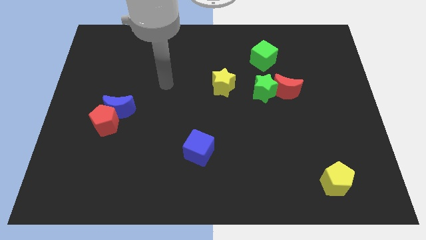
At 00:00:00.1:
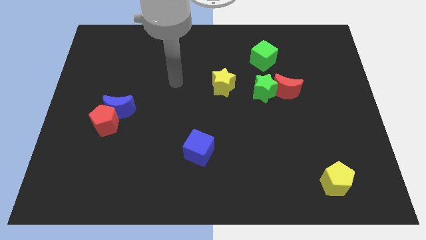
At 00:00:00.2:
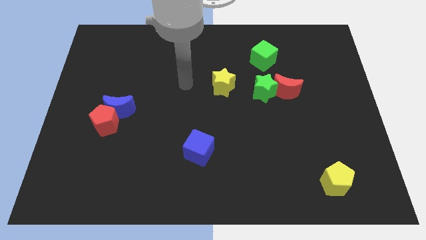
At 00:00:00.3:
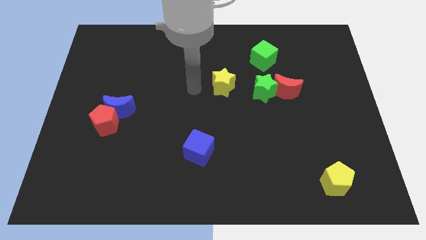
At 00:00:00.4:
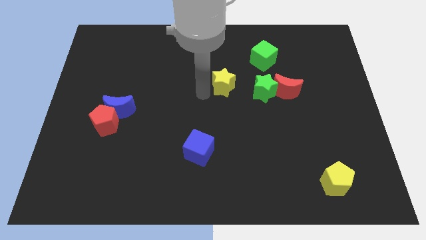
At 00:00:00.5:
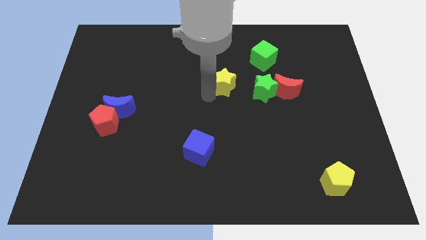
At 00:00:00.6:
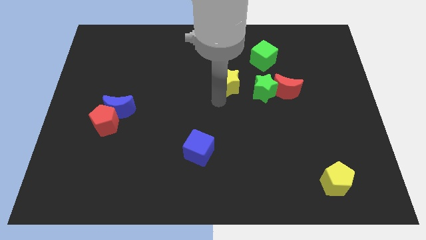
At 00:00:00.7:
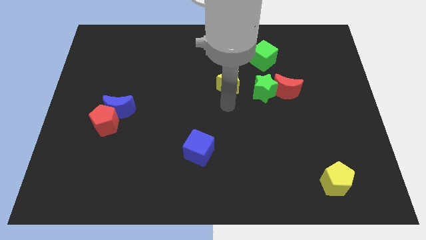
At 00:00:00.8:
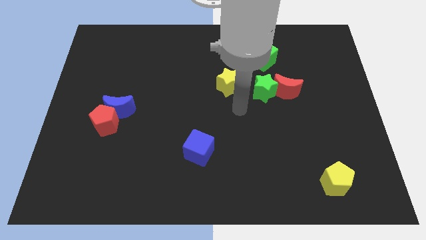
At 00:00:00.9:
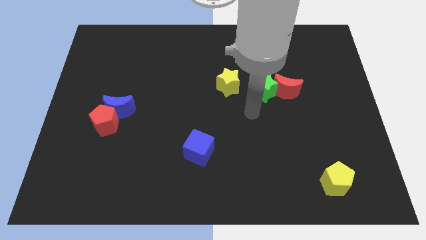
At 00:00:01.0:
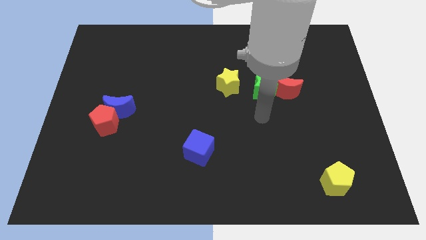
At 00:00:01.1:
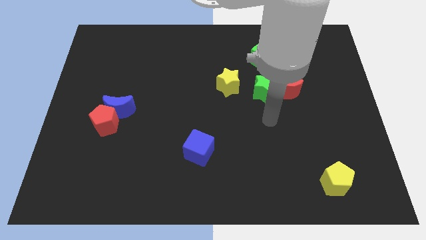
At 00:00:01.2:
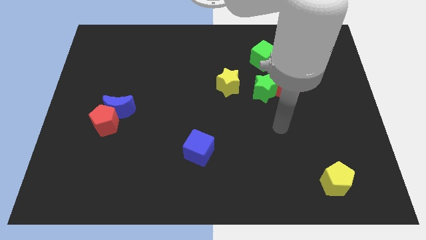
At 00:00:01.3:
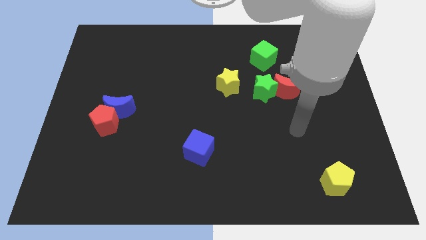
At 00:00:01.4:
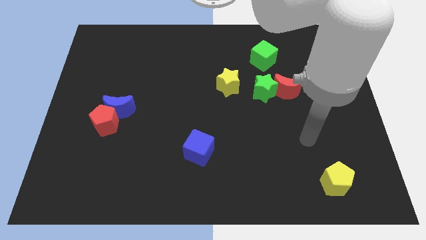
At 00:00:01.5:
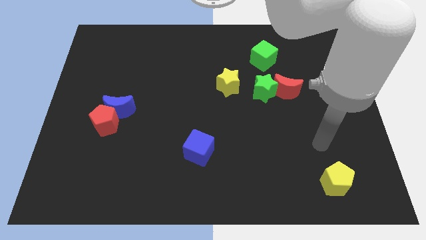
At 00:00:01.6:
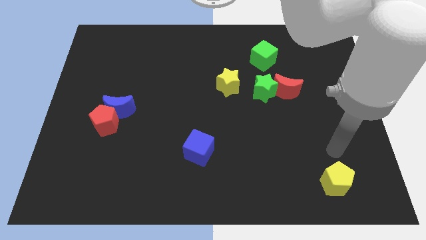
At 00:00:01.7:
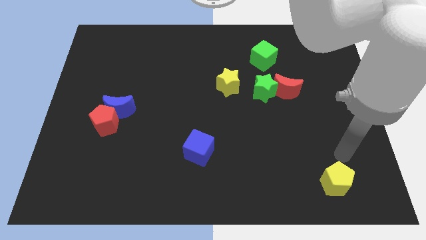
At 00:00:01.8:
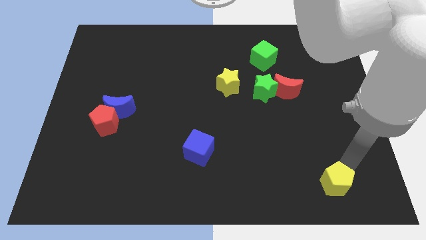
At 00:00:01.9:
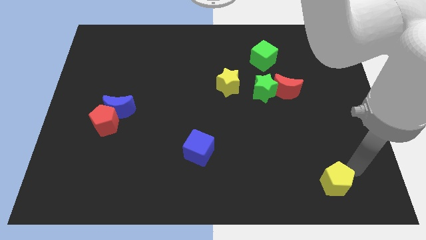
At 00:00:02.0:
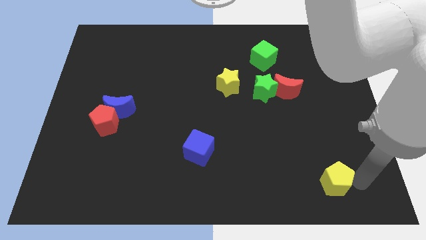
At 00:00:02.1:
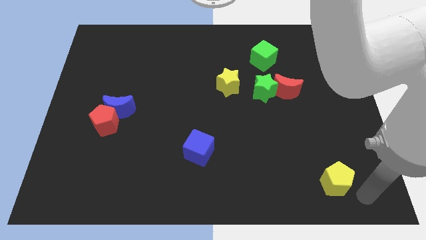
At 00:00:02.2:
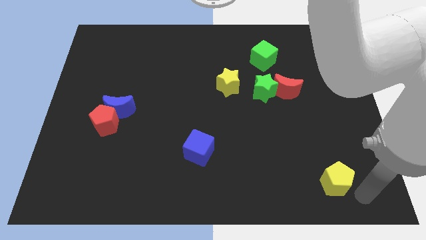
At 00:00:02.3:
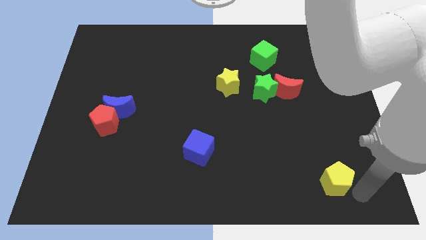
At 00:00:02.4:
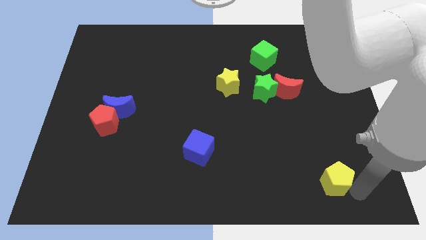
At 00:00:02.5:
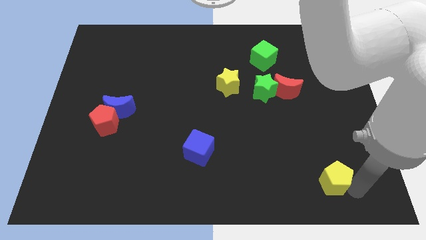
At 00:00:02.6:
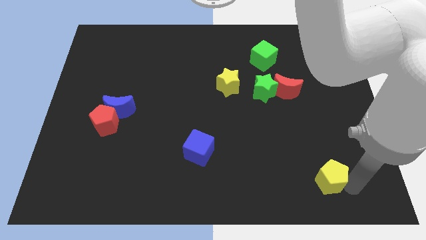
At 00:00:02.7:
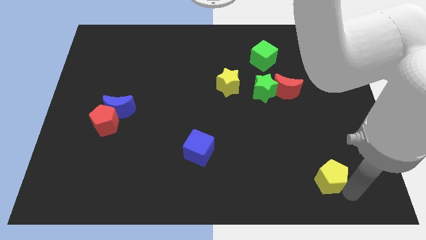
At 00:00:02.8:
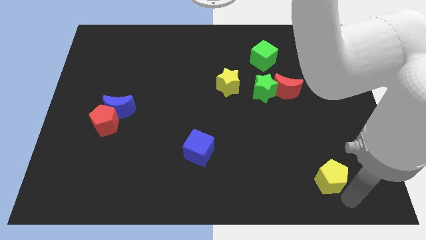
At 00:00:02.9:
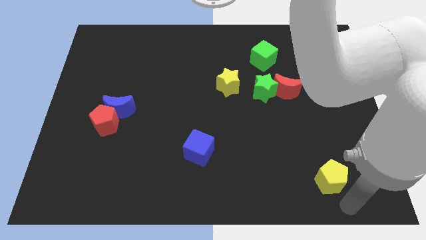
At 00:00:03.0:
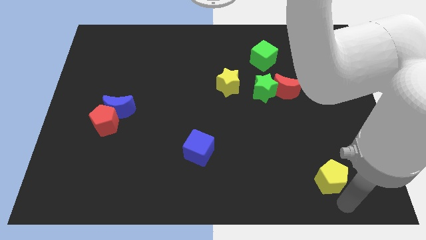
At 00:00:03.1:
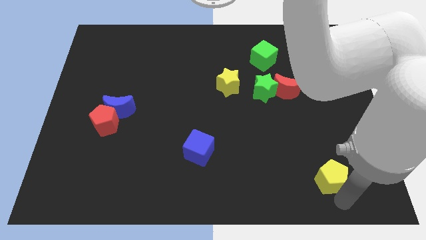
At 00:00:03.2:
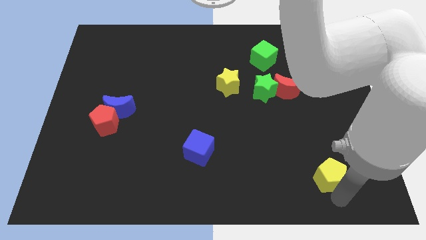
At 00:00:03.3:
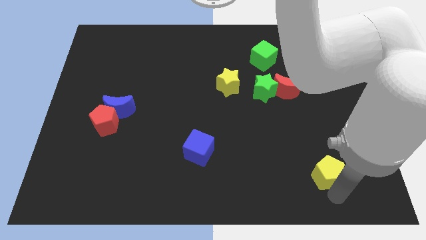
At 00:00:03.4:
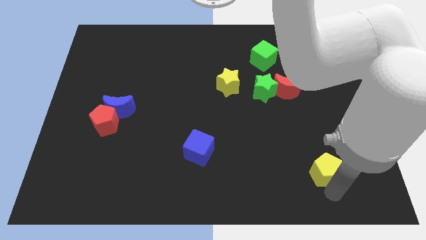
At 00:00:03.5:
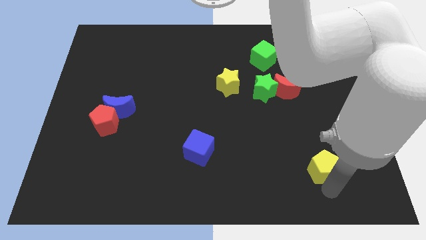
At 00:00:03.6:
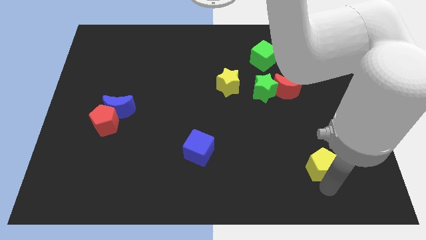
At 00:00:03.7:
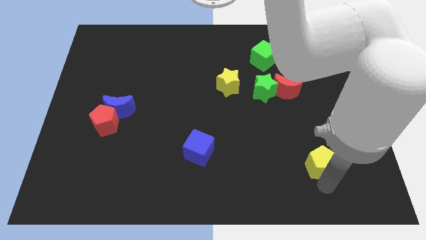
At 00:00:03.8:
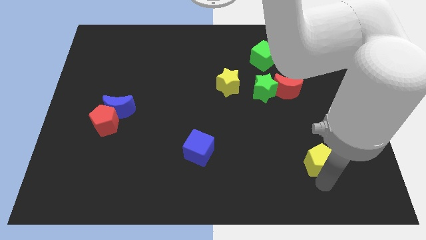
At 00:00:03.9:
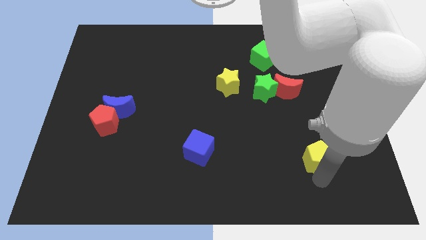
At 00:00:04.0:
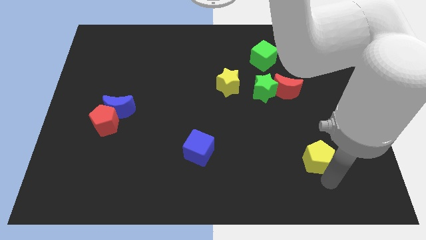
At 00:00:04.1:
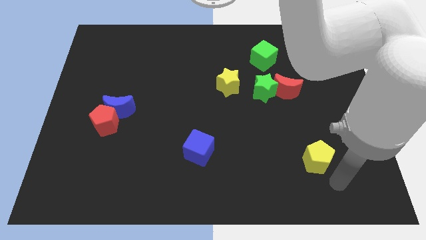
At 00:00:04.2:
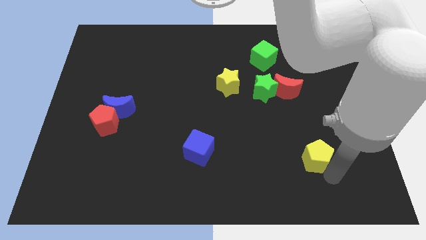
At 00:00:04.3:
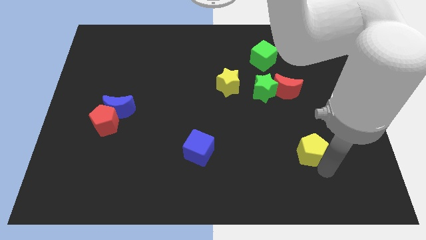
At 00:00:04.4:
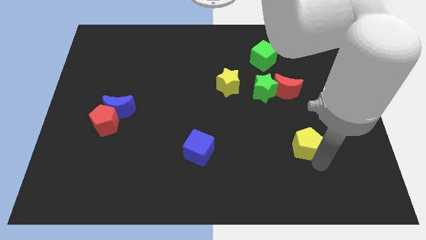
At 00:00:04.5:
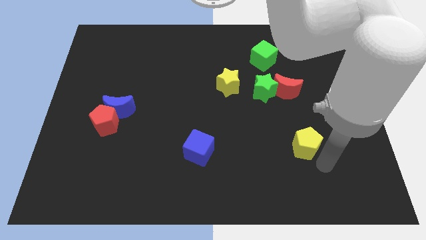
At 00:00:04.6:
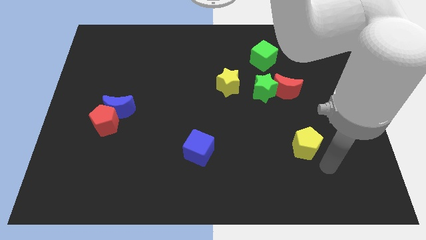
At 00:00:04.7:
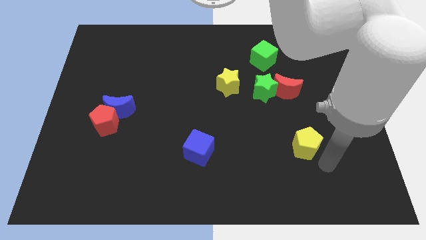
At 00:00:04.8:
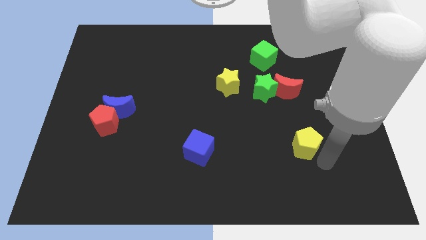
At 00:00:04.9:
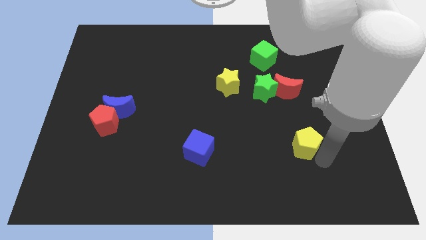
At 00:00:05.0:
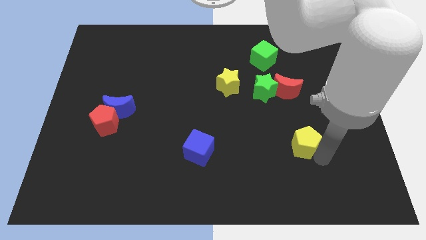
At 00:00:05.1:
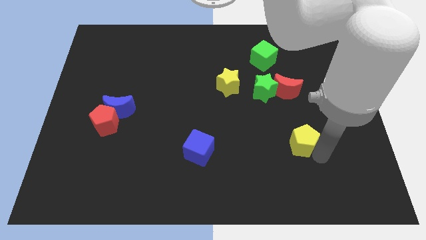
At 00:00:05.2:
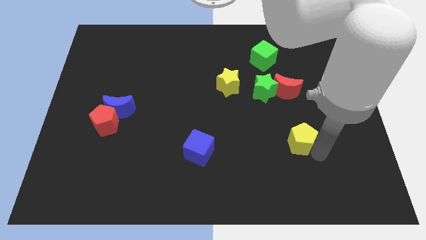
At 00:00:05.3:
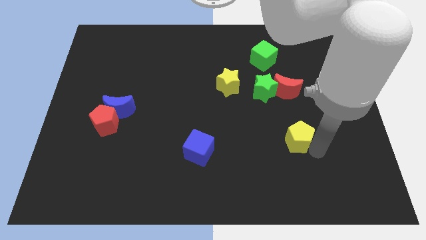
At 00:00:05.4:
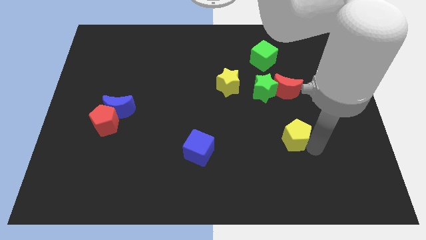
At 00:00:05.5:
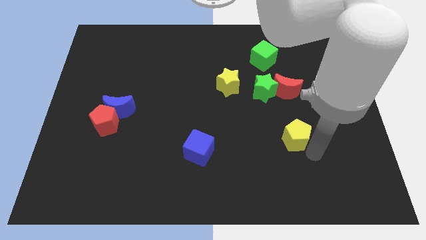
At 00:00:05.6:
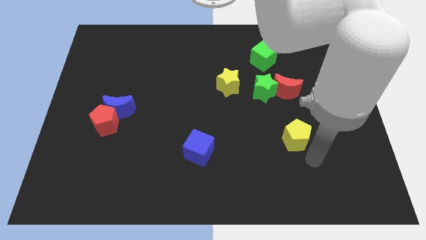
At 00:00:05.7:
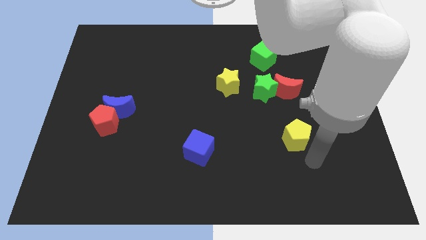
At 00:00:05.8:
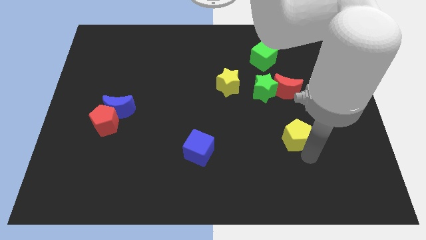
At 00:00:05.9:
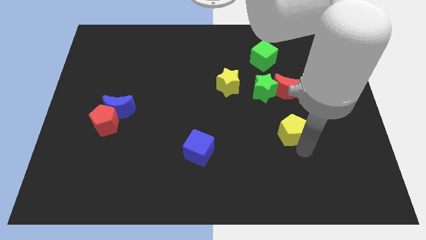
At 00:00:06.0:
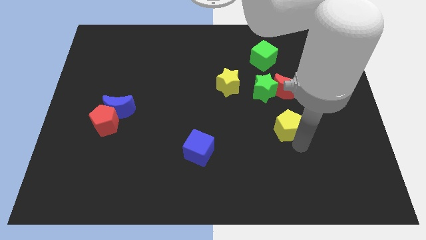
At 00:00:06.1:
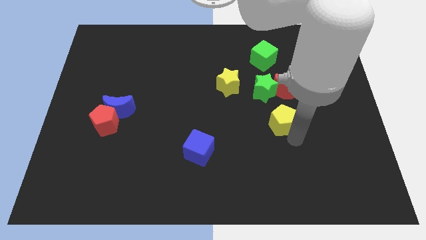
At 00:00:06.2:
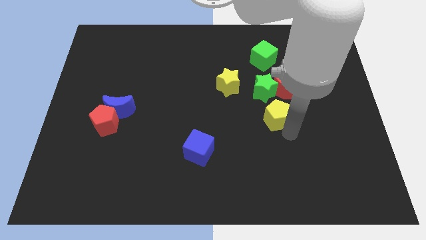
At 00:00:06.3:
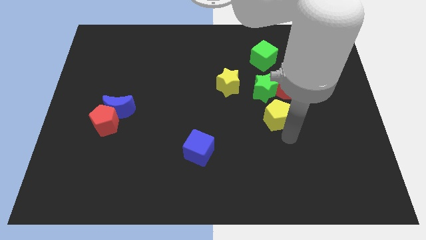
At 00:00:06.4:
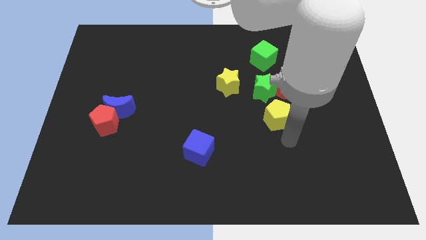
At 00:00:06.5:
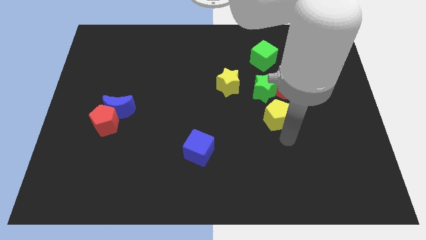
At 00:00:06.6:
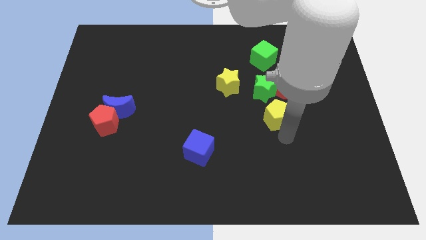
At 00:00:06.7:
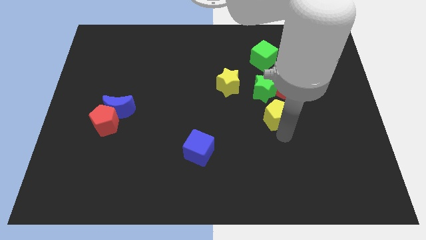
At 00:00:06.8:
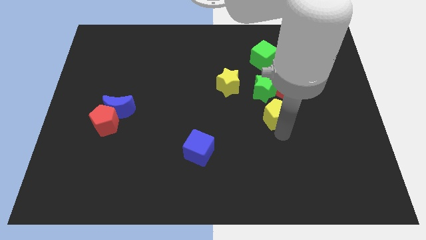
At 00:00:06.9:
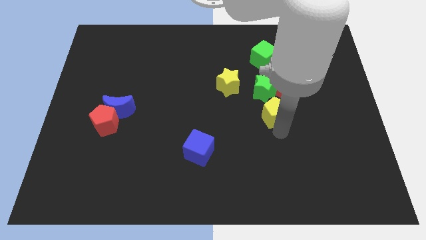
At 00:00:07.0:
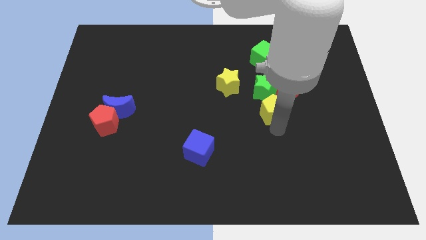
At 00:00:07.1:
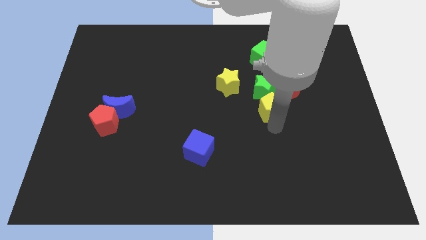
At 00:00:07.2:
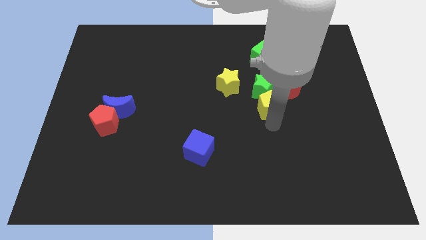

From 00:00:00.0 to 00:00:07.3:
push the yellow pentagon to the bottom of the green cube
